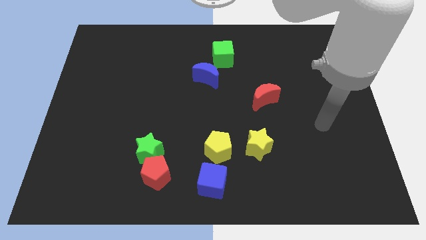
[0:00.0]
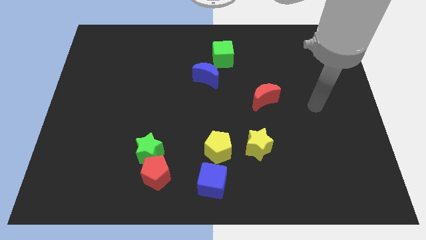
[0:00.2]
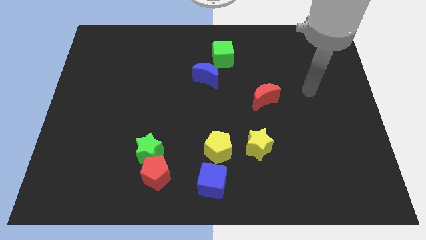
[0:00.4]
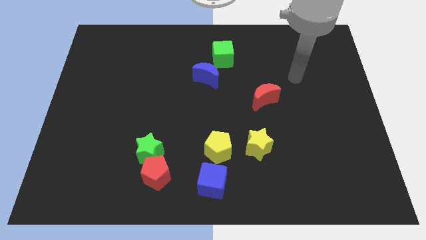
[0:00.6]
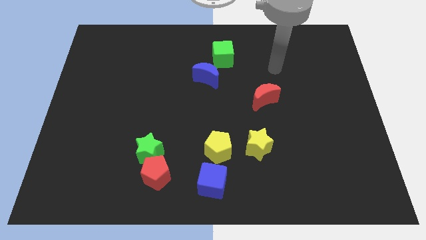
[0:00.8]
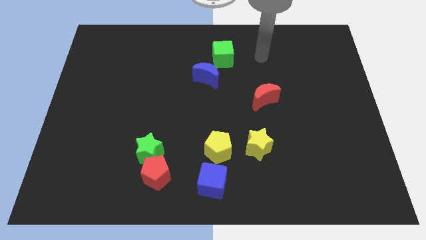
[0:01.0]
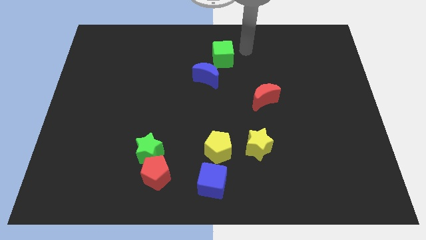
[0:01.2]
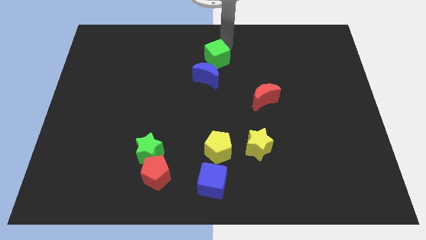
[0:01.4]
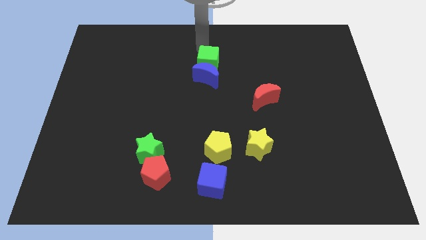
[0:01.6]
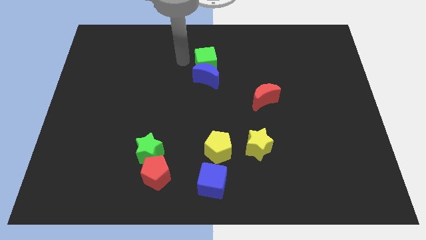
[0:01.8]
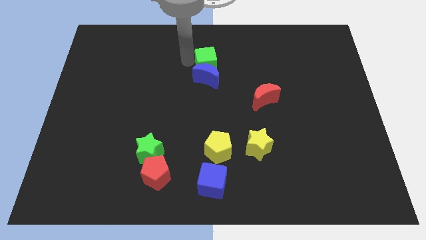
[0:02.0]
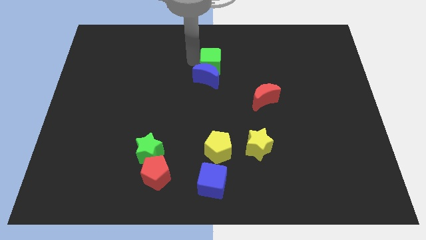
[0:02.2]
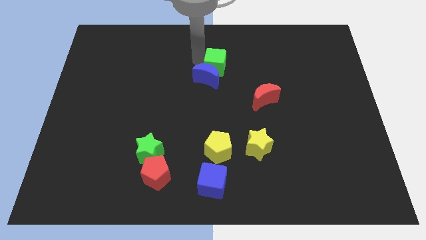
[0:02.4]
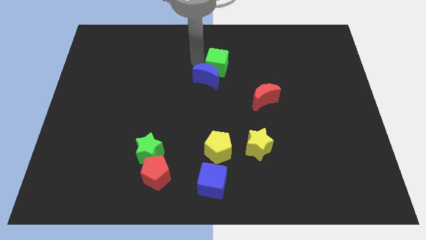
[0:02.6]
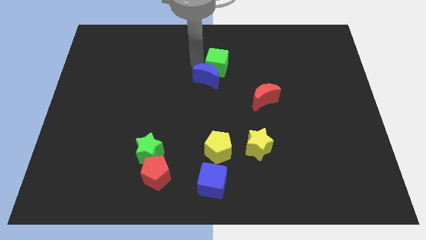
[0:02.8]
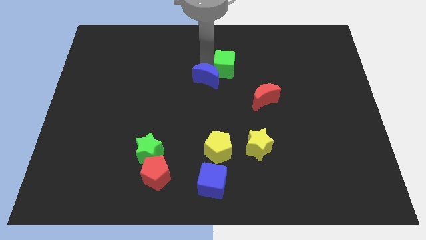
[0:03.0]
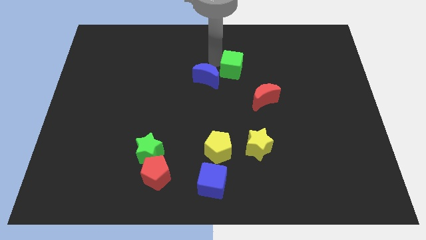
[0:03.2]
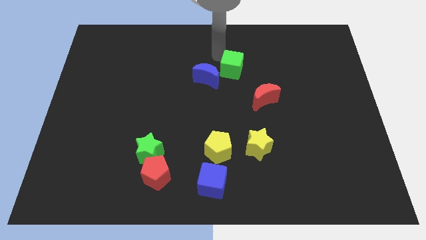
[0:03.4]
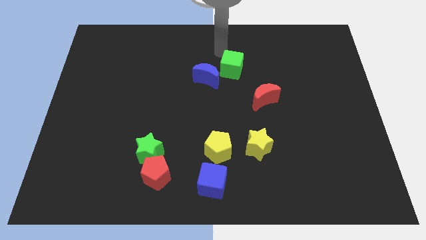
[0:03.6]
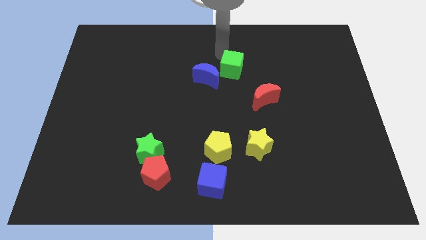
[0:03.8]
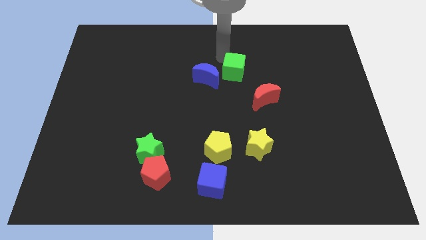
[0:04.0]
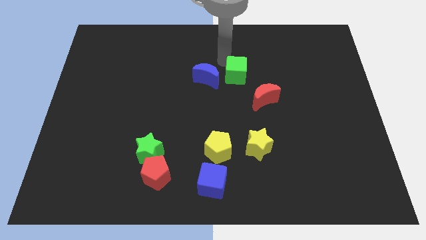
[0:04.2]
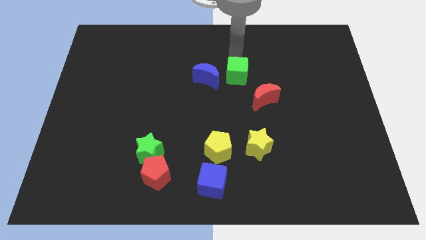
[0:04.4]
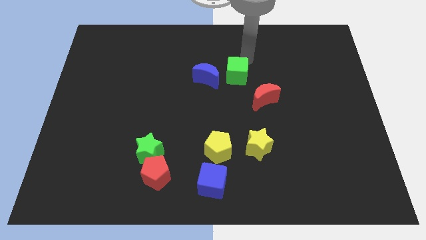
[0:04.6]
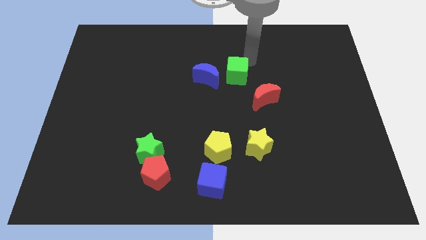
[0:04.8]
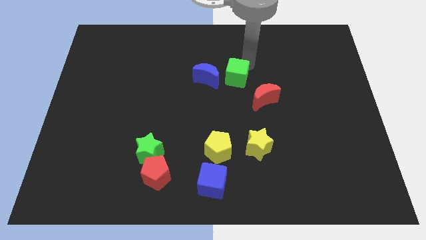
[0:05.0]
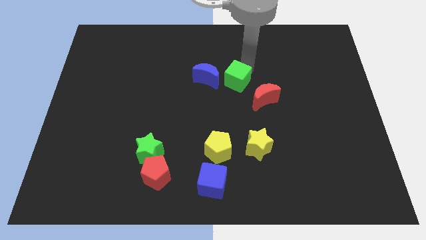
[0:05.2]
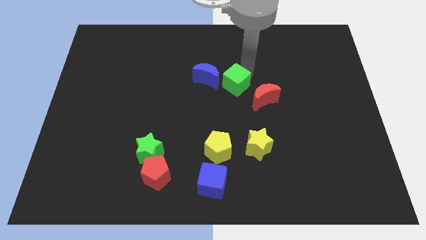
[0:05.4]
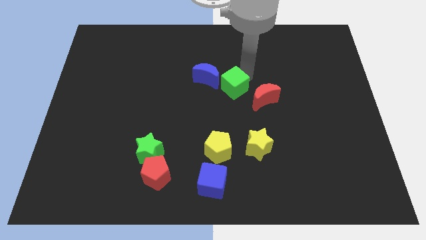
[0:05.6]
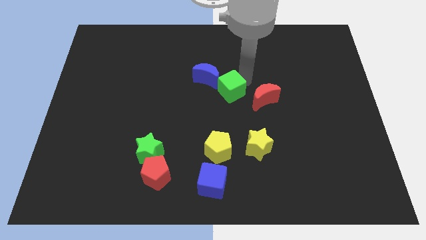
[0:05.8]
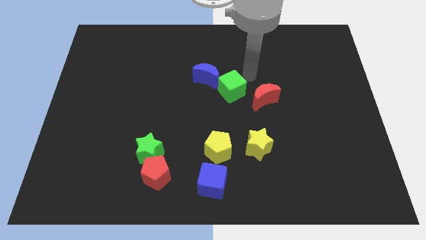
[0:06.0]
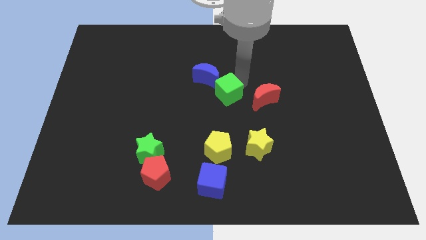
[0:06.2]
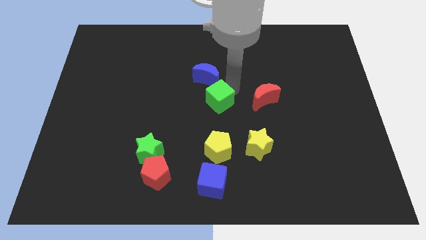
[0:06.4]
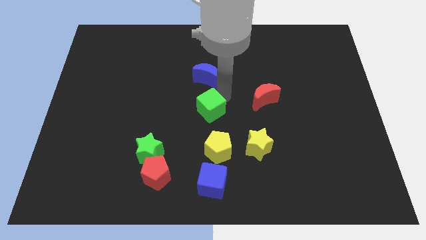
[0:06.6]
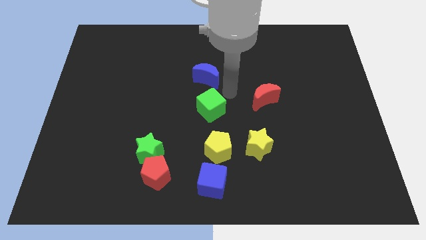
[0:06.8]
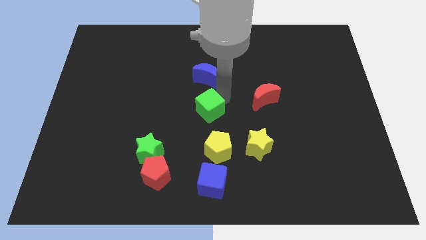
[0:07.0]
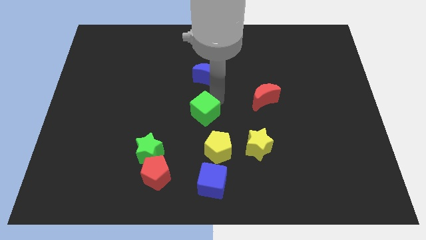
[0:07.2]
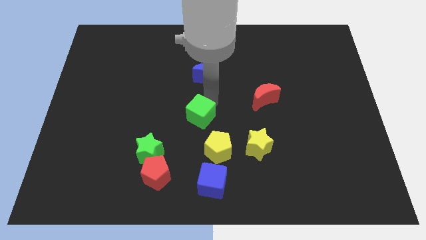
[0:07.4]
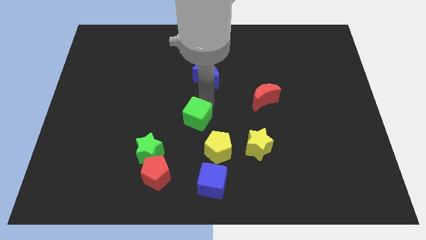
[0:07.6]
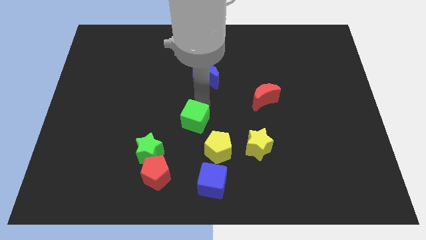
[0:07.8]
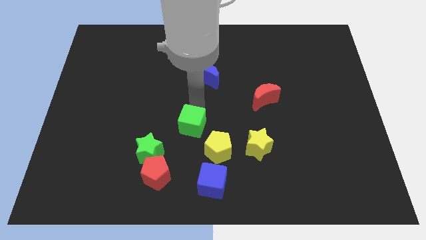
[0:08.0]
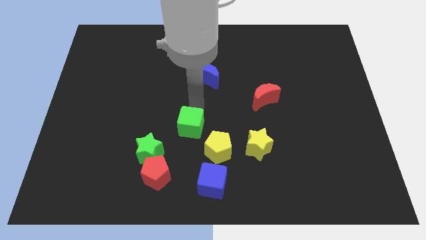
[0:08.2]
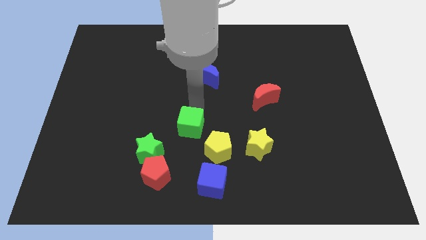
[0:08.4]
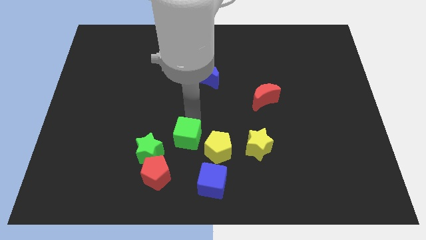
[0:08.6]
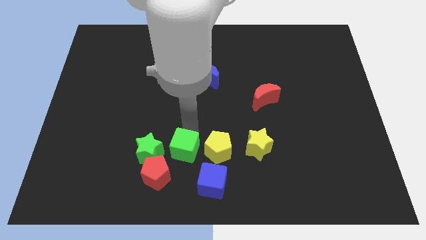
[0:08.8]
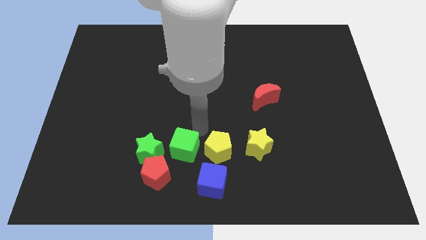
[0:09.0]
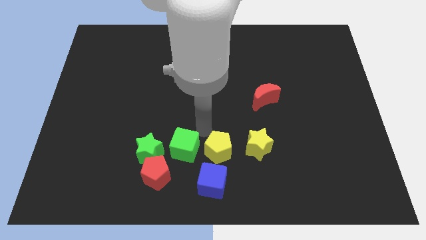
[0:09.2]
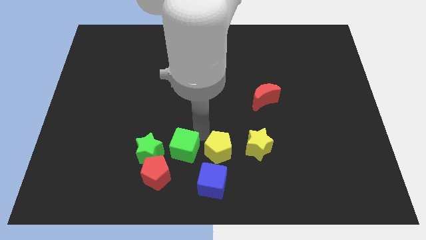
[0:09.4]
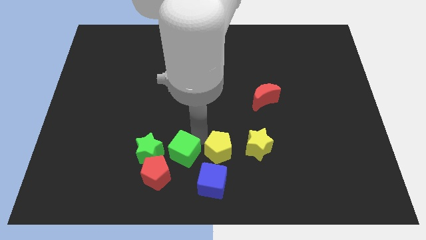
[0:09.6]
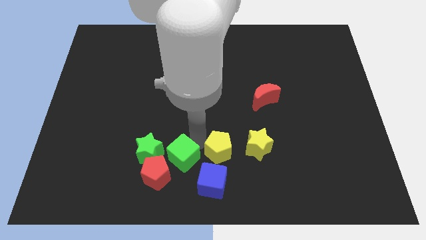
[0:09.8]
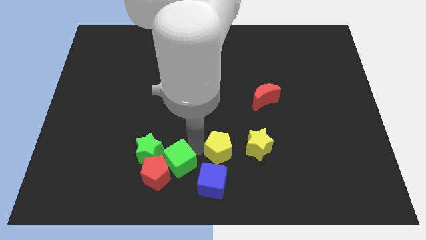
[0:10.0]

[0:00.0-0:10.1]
move the green cube towards the red pentagon

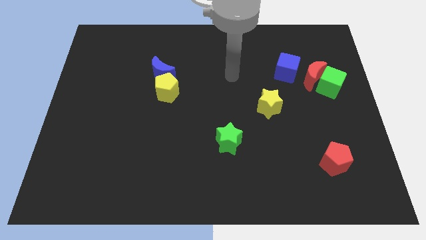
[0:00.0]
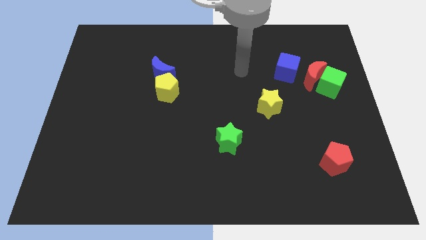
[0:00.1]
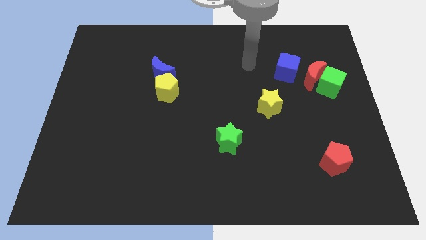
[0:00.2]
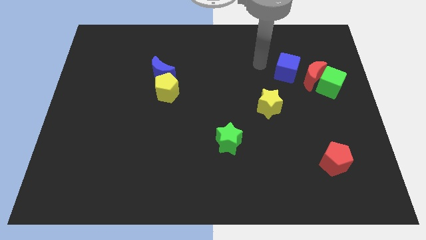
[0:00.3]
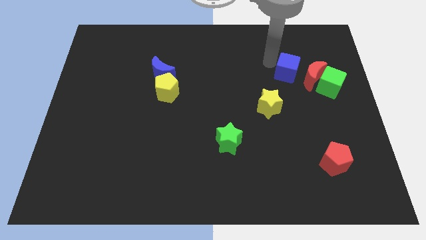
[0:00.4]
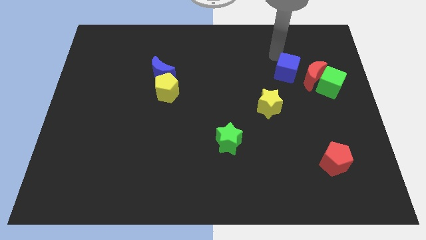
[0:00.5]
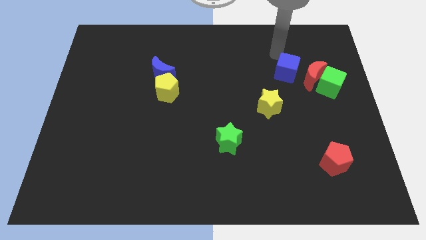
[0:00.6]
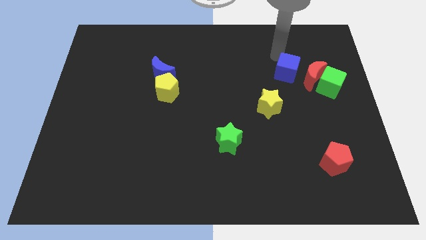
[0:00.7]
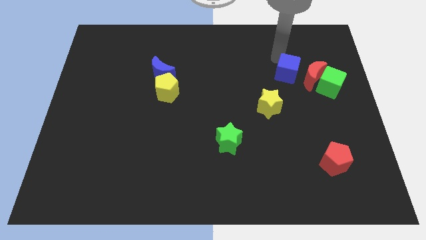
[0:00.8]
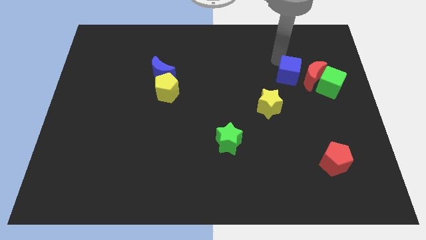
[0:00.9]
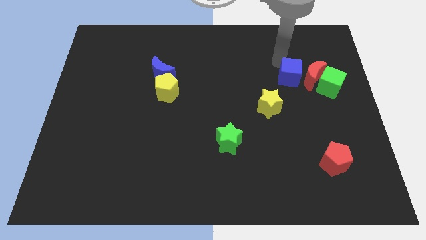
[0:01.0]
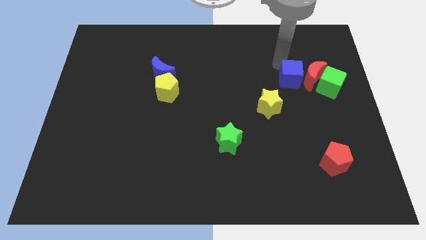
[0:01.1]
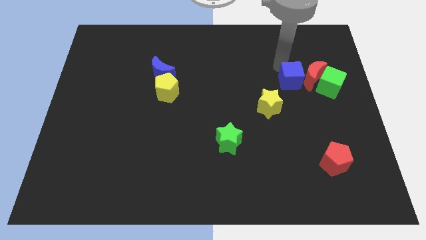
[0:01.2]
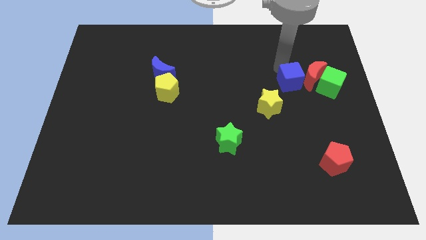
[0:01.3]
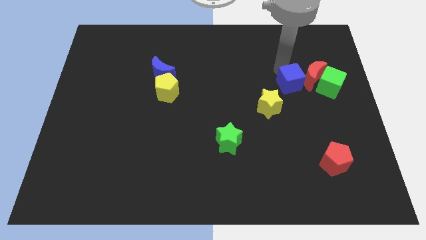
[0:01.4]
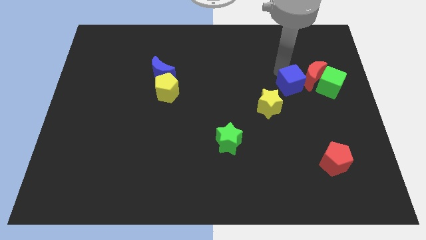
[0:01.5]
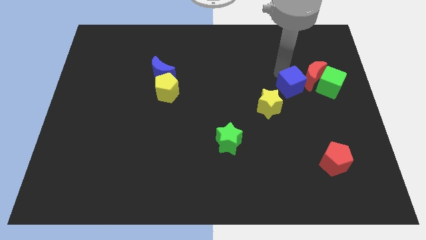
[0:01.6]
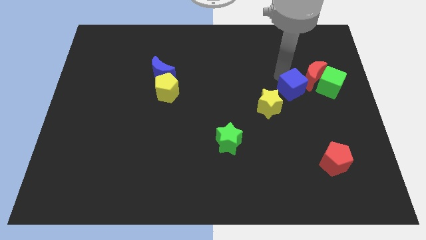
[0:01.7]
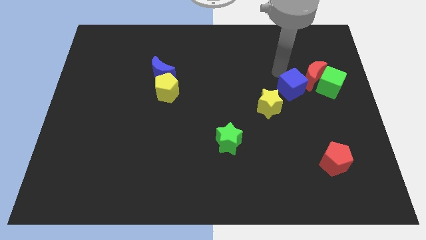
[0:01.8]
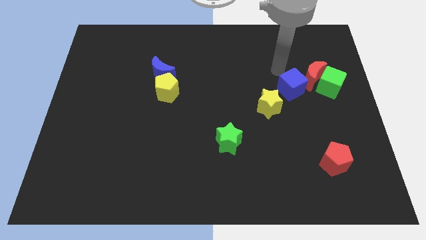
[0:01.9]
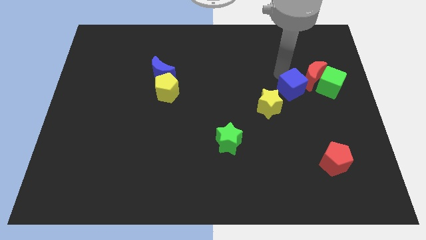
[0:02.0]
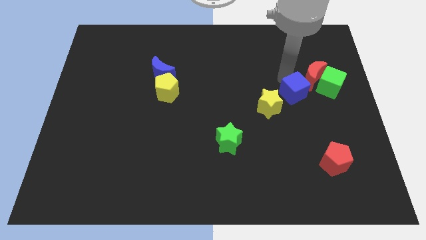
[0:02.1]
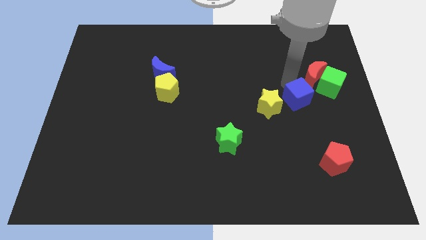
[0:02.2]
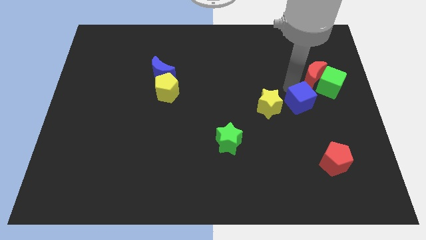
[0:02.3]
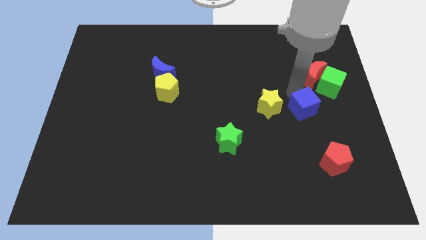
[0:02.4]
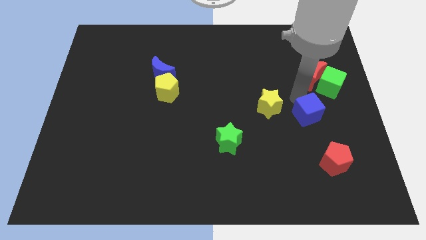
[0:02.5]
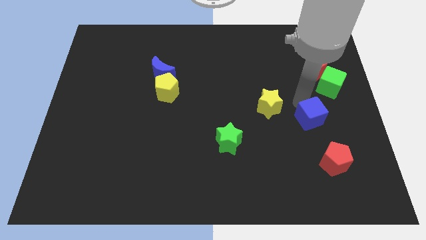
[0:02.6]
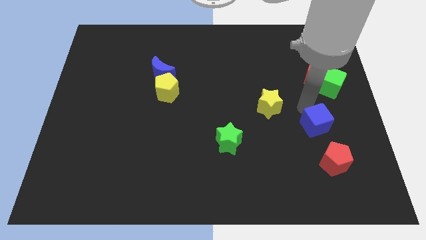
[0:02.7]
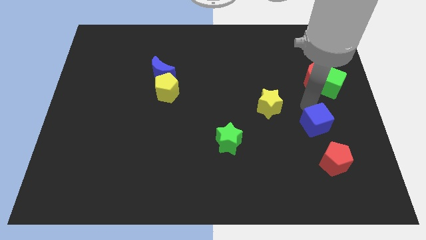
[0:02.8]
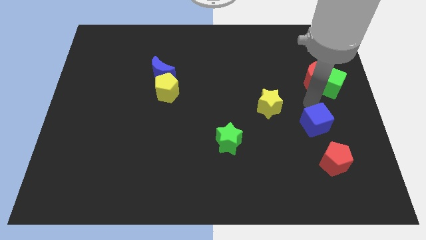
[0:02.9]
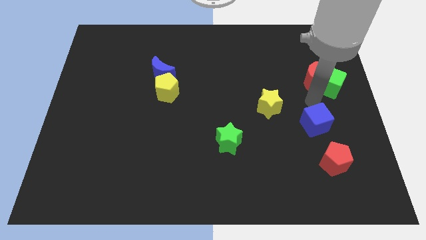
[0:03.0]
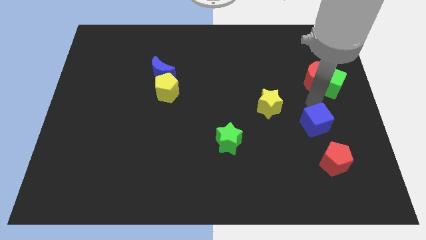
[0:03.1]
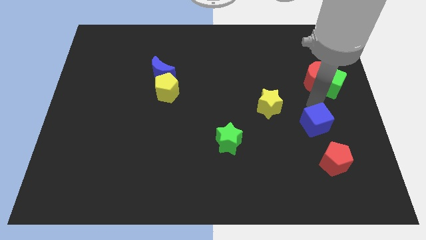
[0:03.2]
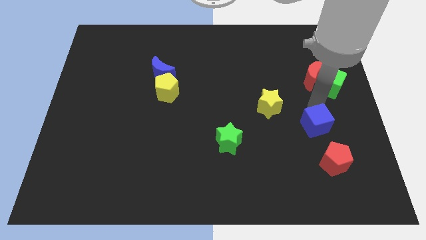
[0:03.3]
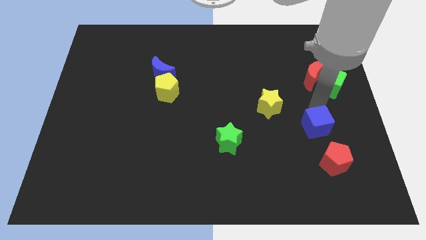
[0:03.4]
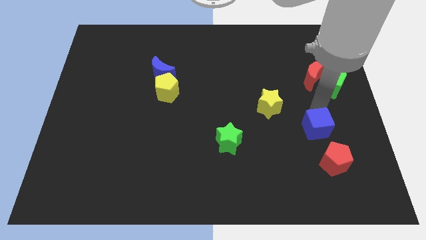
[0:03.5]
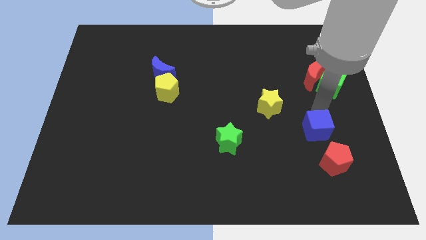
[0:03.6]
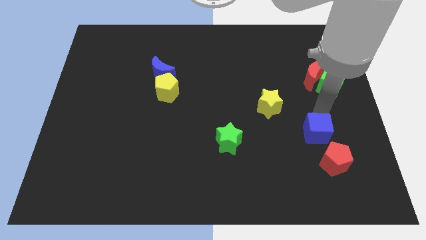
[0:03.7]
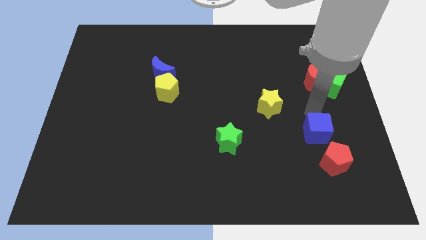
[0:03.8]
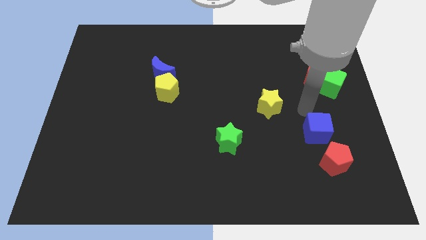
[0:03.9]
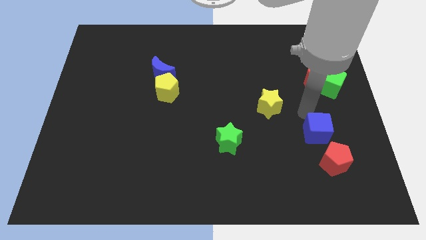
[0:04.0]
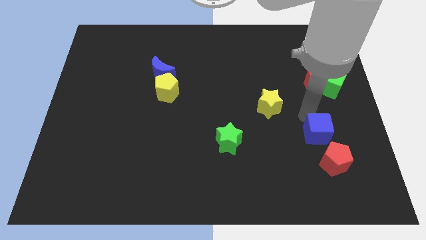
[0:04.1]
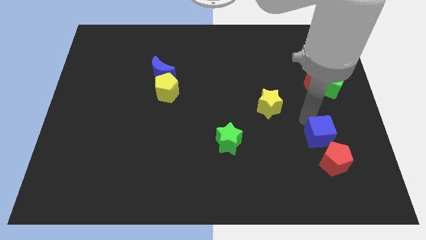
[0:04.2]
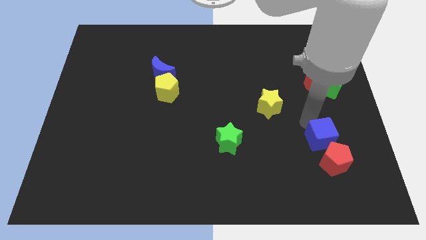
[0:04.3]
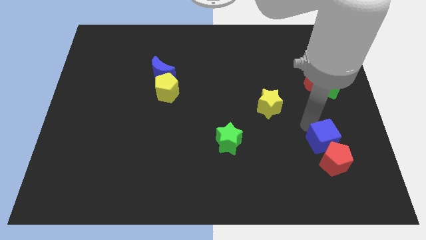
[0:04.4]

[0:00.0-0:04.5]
push the blue cube towards the red pentagon
